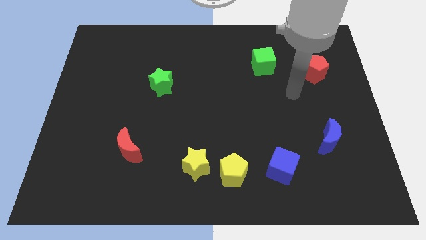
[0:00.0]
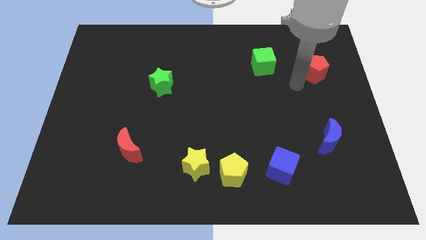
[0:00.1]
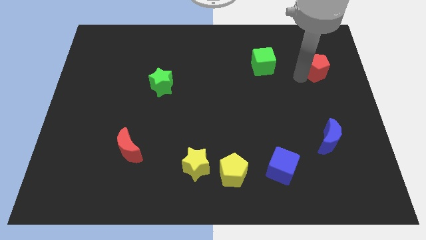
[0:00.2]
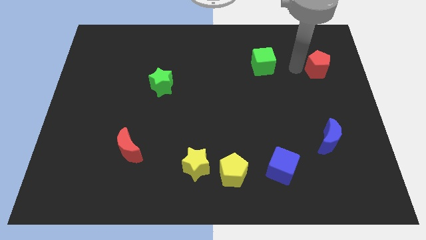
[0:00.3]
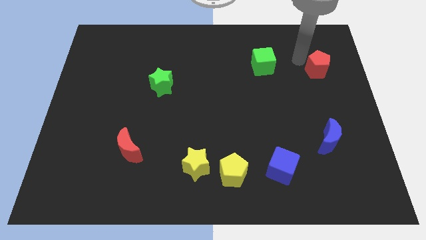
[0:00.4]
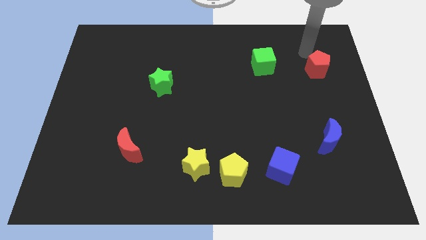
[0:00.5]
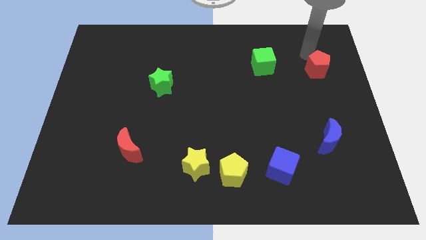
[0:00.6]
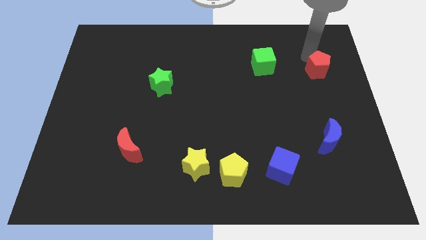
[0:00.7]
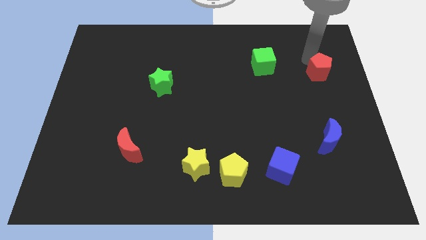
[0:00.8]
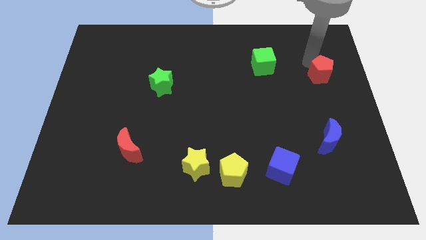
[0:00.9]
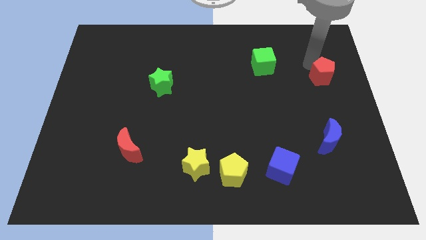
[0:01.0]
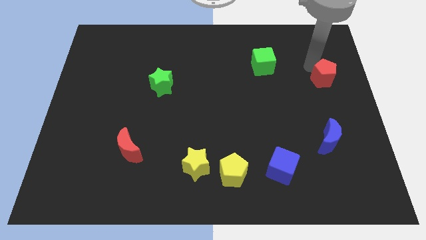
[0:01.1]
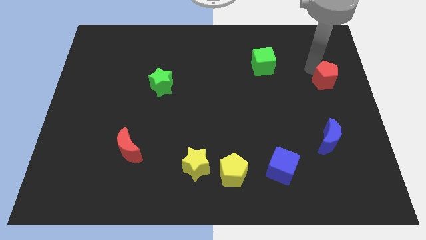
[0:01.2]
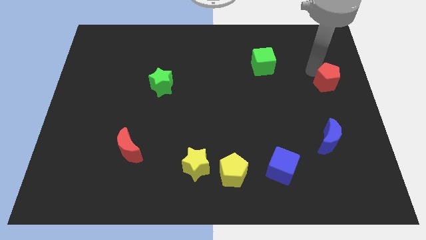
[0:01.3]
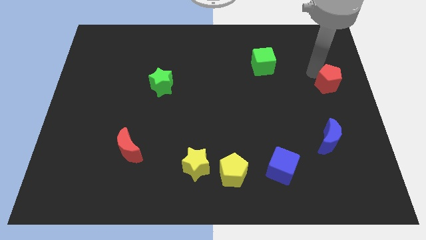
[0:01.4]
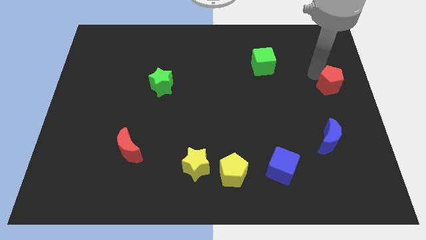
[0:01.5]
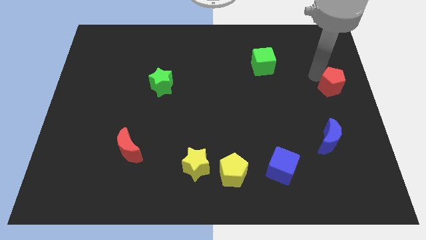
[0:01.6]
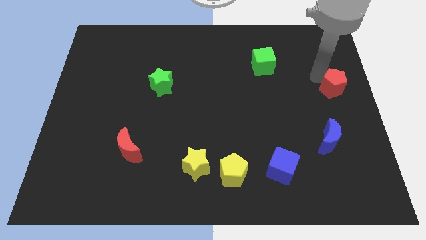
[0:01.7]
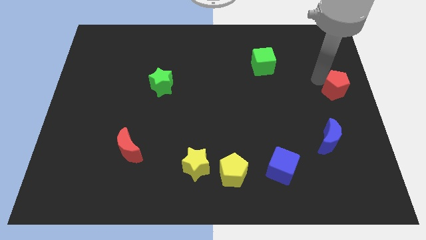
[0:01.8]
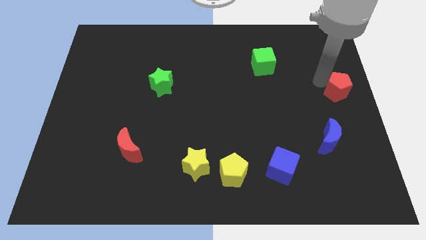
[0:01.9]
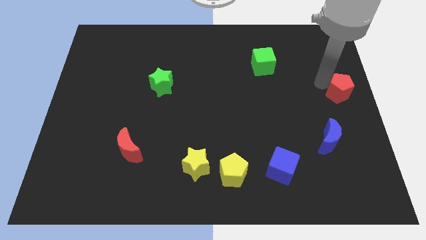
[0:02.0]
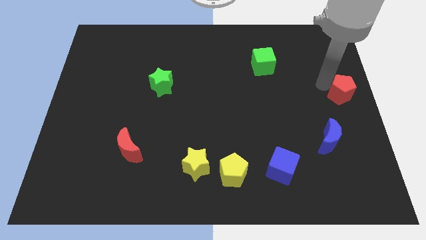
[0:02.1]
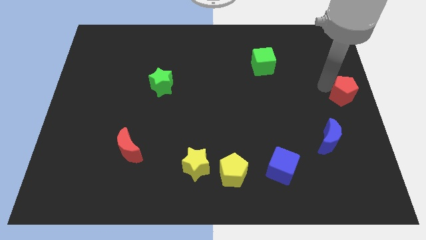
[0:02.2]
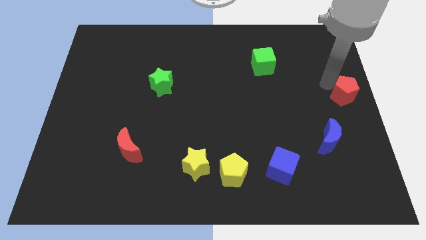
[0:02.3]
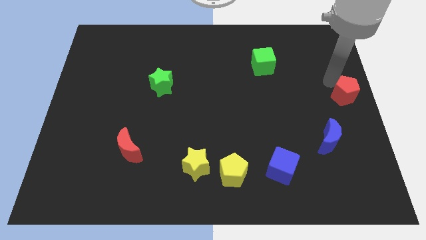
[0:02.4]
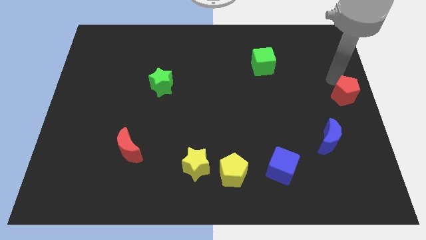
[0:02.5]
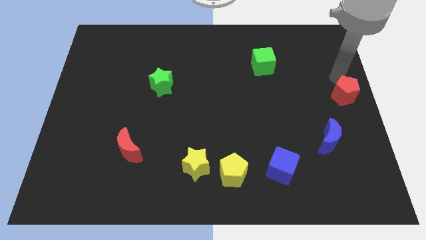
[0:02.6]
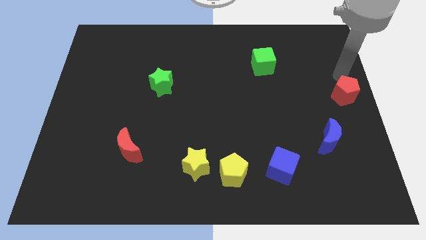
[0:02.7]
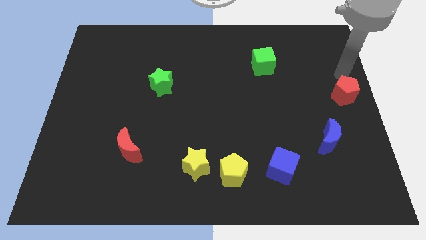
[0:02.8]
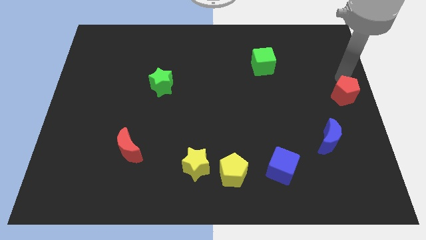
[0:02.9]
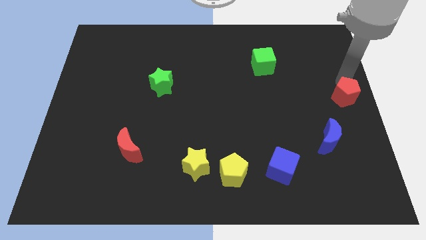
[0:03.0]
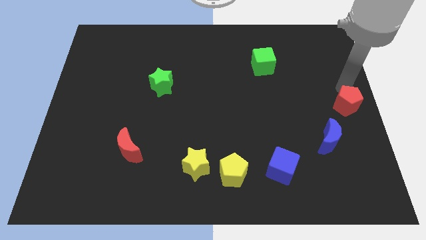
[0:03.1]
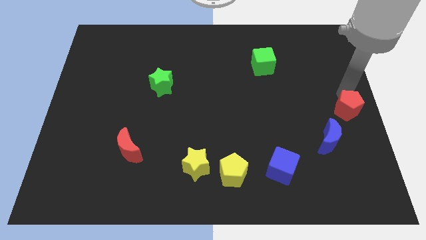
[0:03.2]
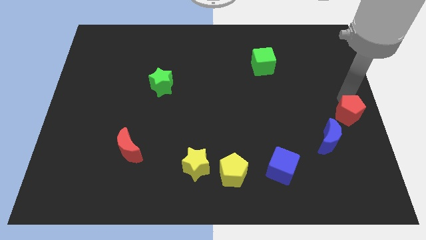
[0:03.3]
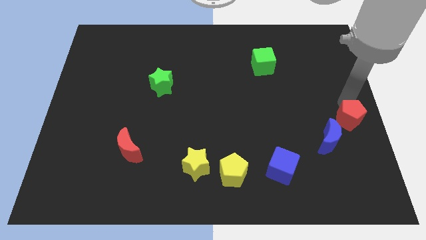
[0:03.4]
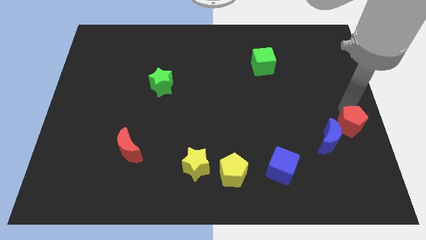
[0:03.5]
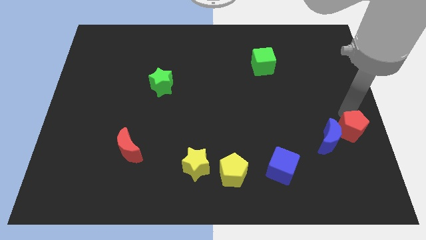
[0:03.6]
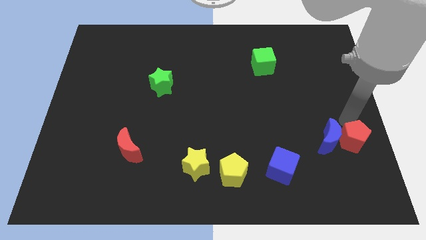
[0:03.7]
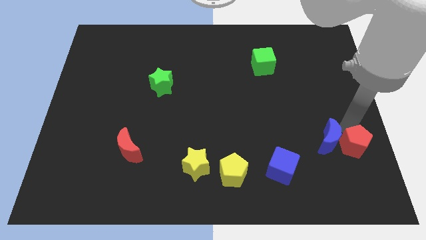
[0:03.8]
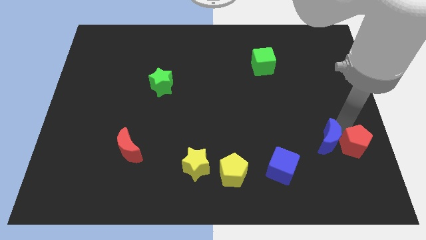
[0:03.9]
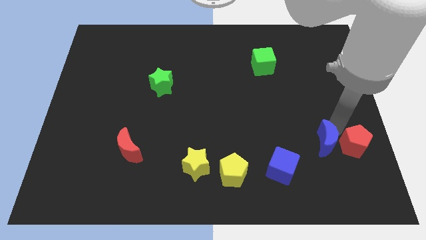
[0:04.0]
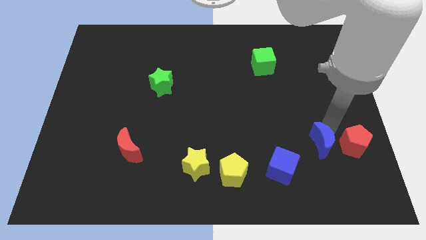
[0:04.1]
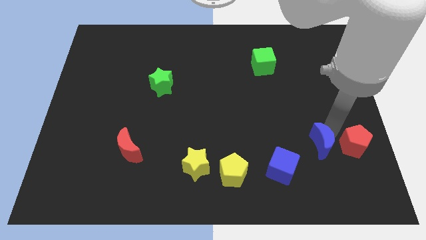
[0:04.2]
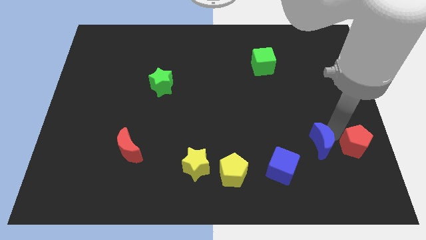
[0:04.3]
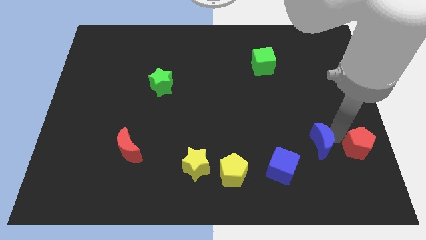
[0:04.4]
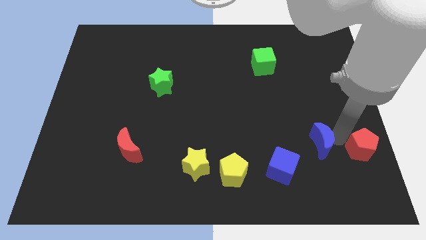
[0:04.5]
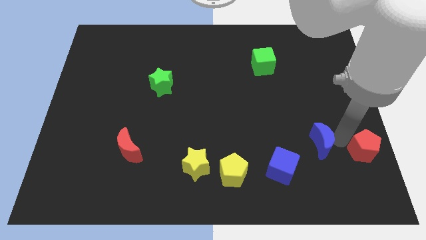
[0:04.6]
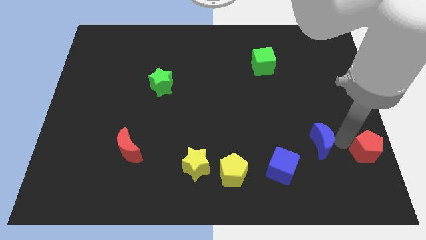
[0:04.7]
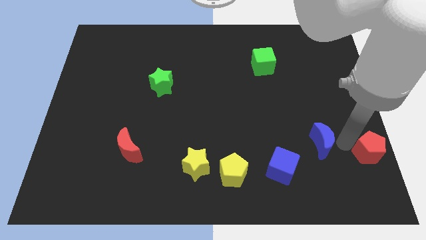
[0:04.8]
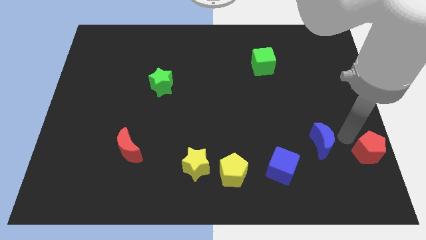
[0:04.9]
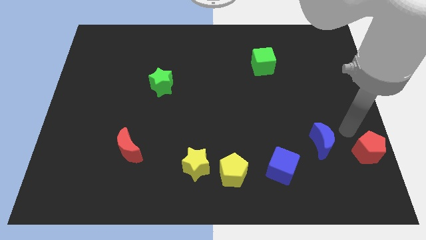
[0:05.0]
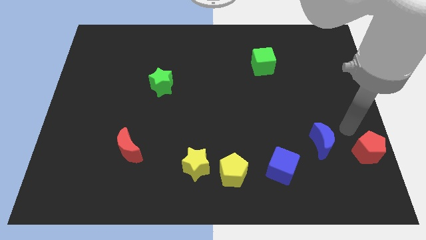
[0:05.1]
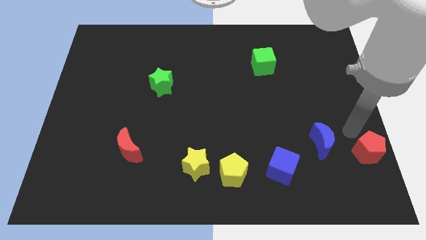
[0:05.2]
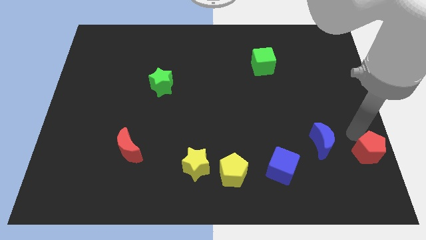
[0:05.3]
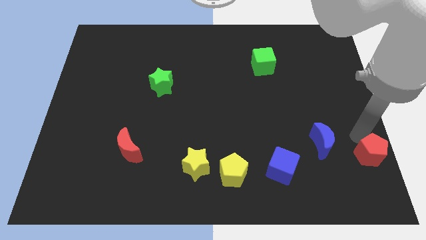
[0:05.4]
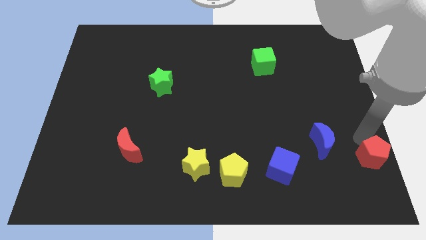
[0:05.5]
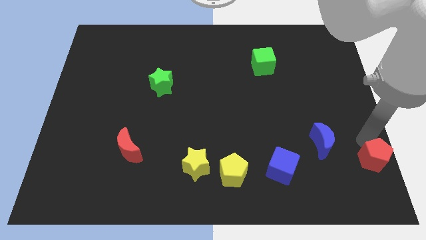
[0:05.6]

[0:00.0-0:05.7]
move the red pentagon to the bottom right of the board

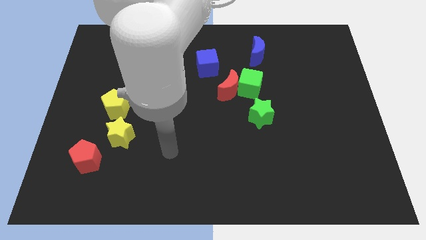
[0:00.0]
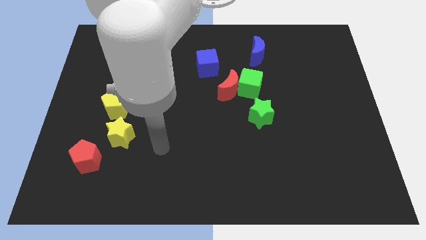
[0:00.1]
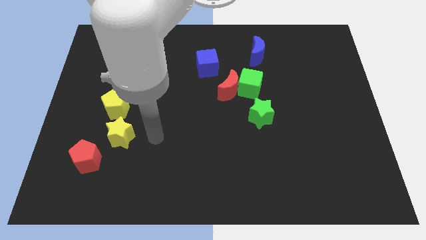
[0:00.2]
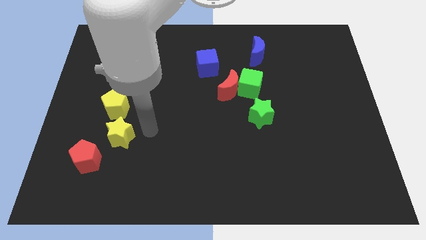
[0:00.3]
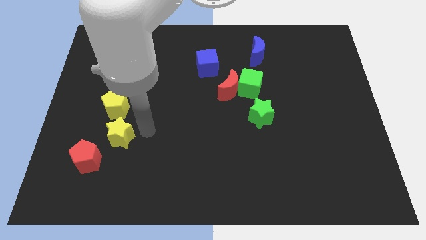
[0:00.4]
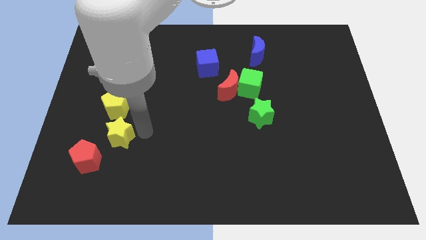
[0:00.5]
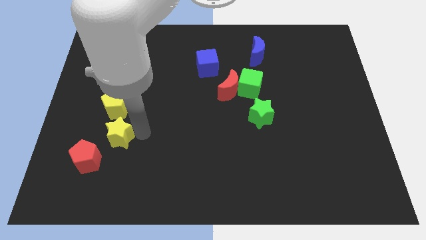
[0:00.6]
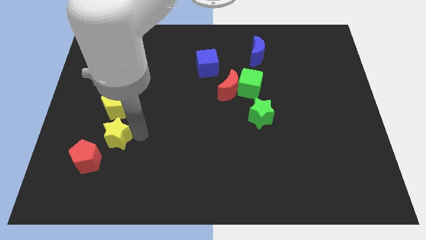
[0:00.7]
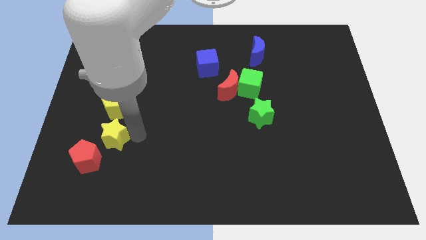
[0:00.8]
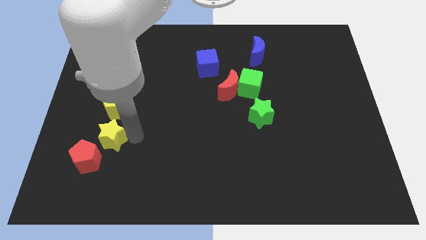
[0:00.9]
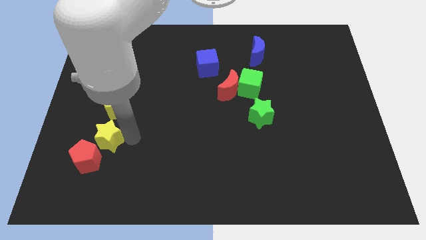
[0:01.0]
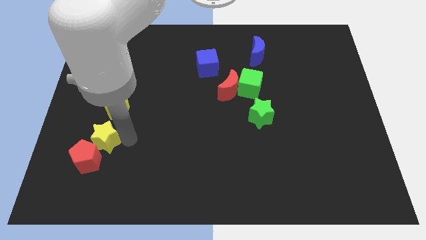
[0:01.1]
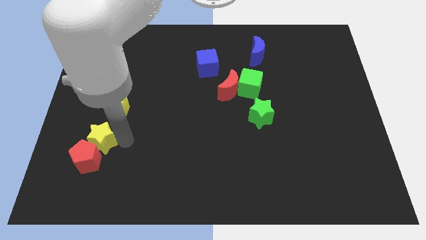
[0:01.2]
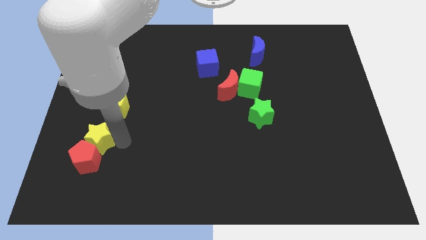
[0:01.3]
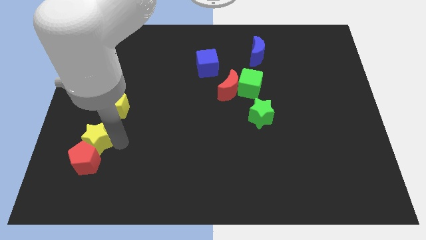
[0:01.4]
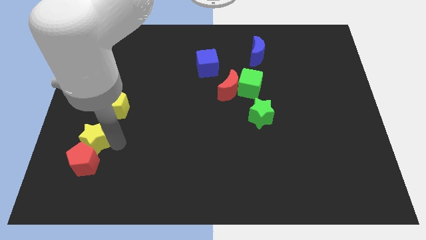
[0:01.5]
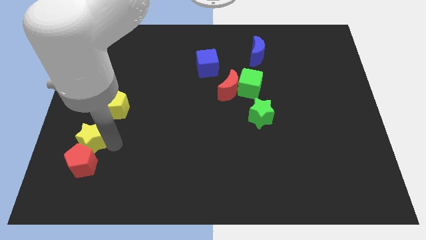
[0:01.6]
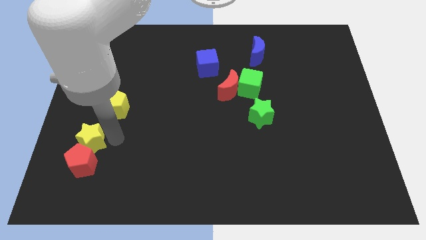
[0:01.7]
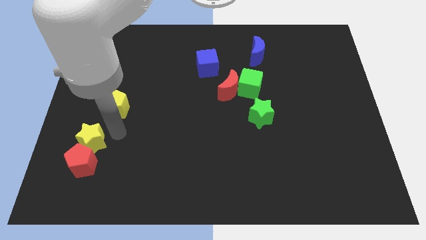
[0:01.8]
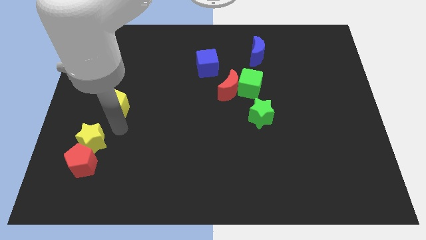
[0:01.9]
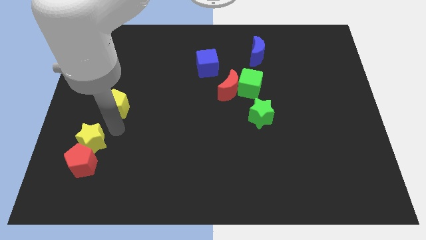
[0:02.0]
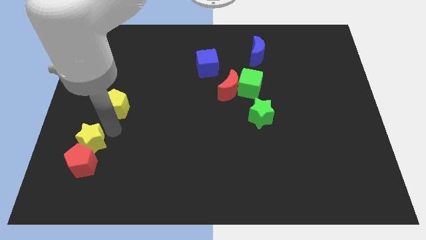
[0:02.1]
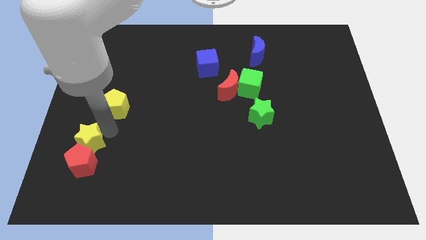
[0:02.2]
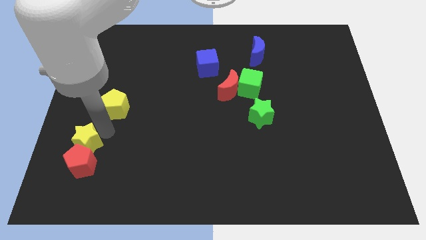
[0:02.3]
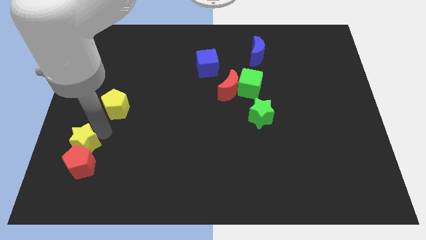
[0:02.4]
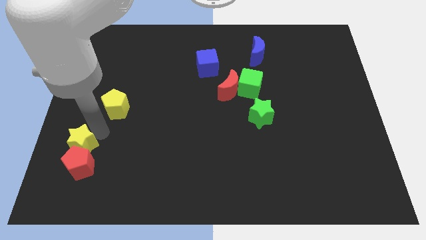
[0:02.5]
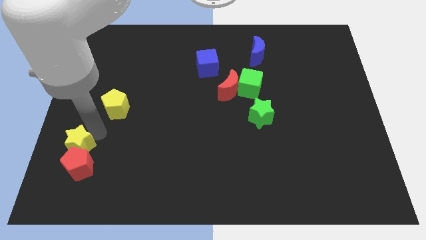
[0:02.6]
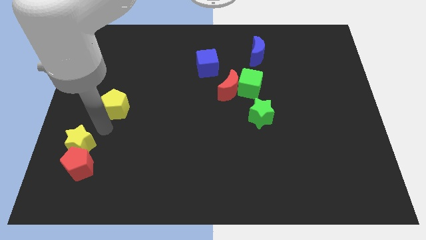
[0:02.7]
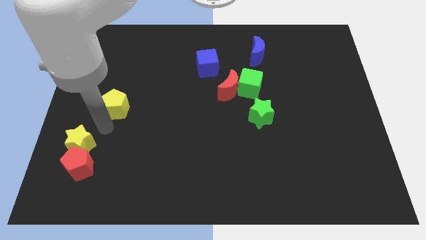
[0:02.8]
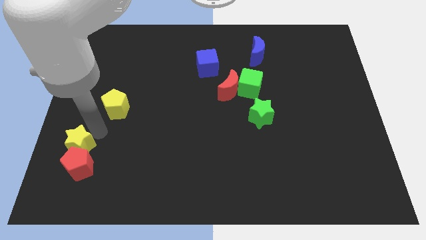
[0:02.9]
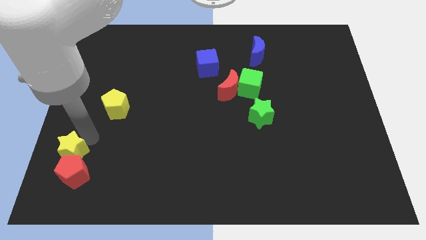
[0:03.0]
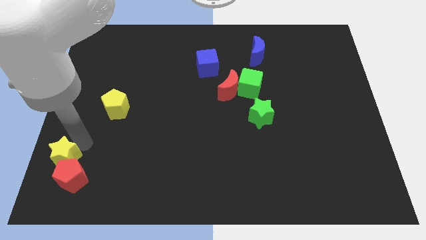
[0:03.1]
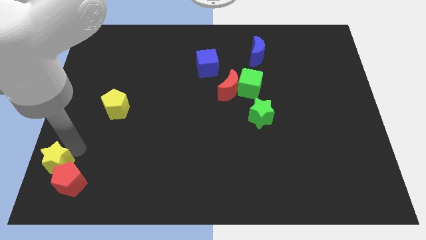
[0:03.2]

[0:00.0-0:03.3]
move the yellow star to the bottom left of the board
